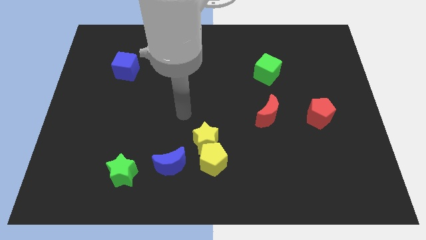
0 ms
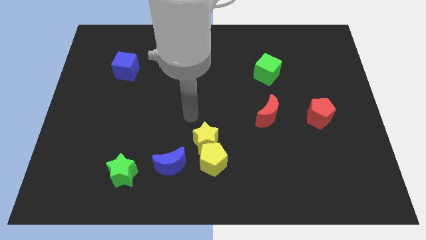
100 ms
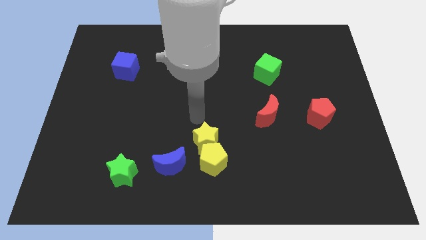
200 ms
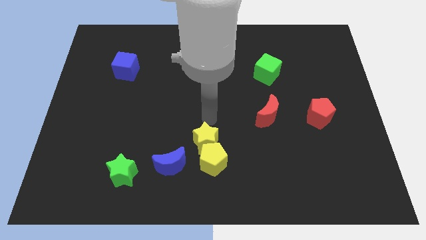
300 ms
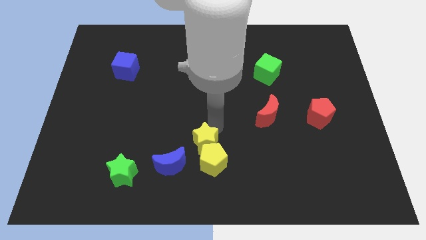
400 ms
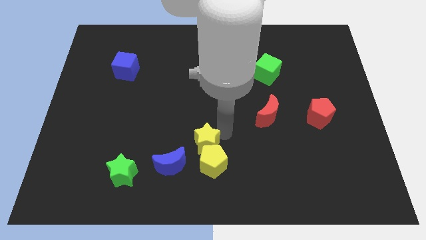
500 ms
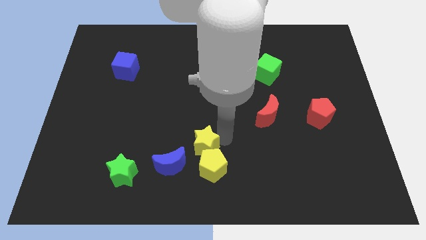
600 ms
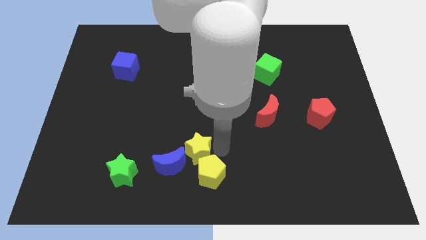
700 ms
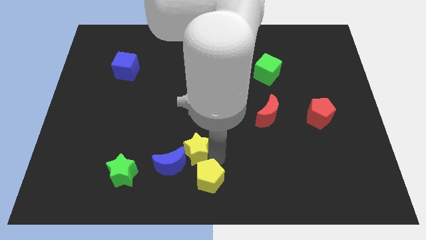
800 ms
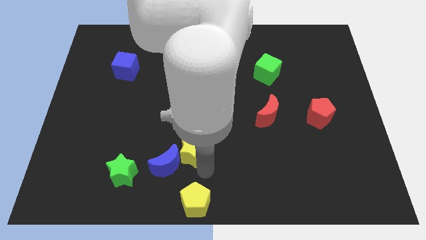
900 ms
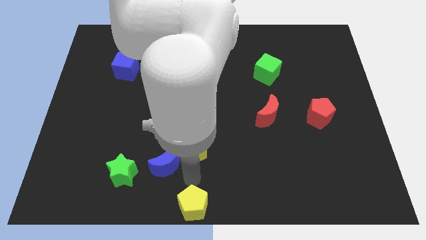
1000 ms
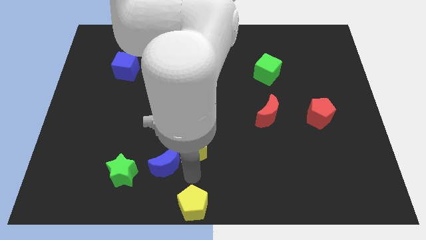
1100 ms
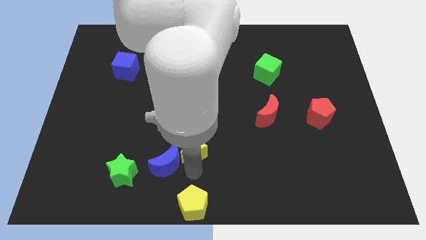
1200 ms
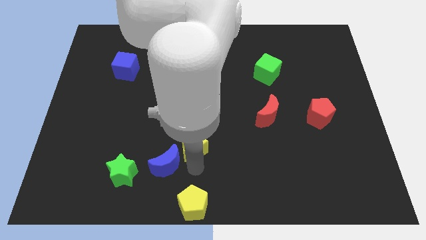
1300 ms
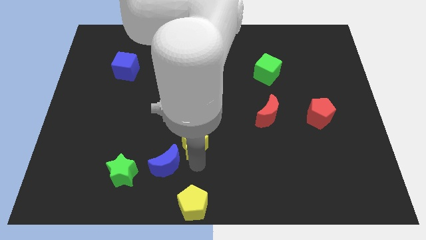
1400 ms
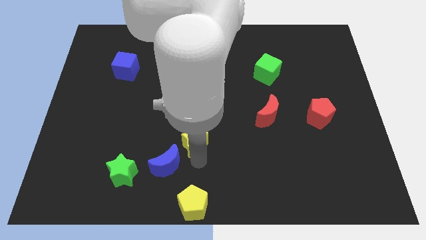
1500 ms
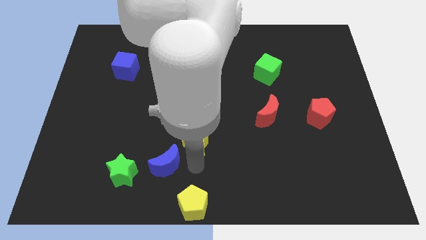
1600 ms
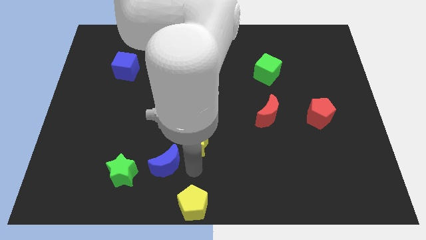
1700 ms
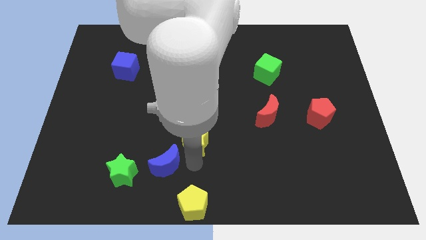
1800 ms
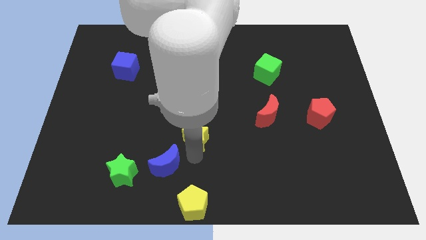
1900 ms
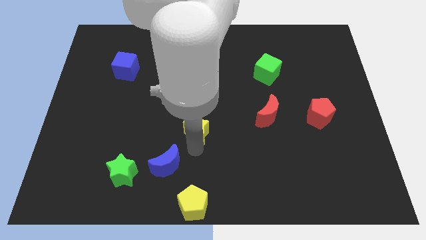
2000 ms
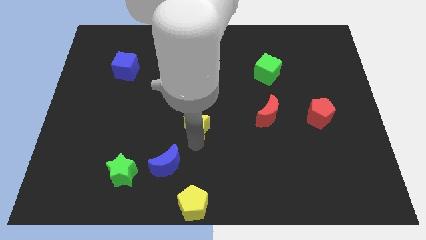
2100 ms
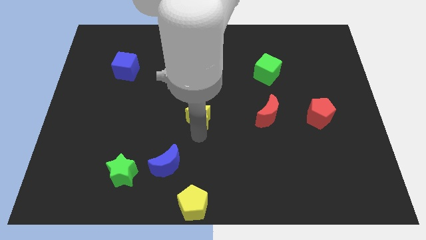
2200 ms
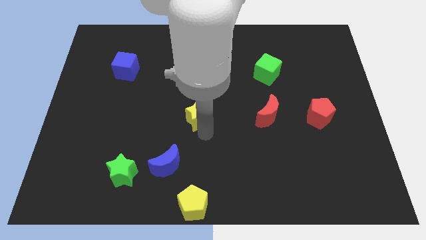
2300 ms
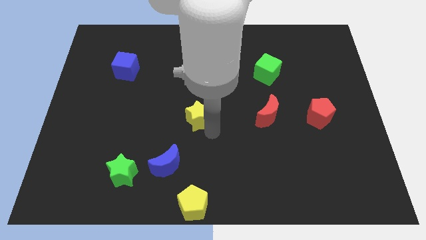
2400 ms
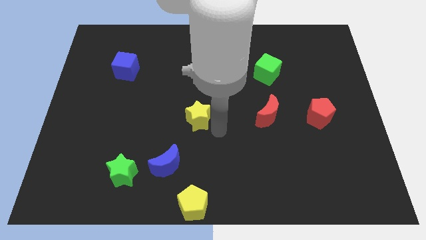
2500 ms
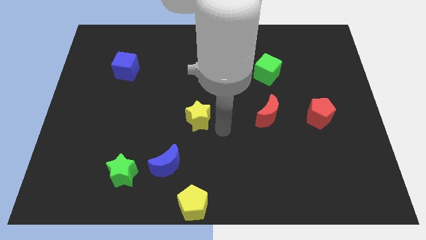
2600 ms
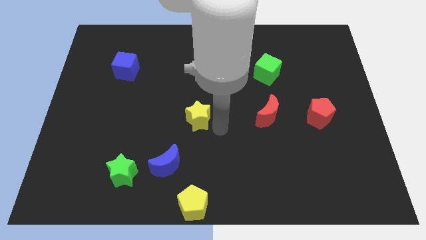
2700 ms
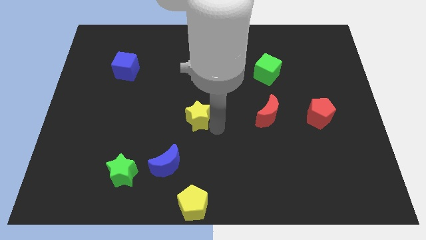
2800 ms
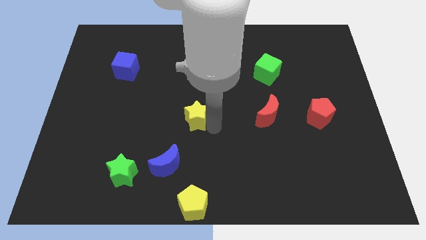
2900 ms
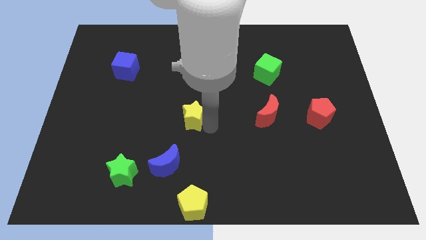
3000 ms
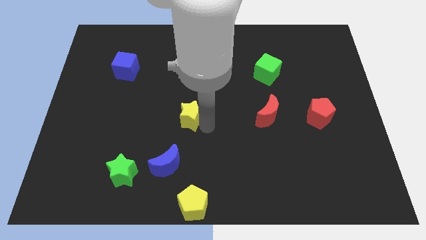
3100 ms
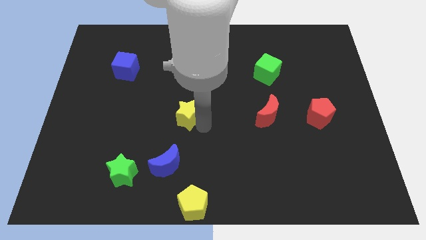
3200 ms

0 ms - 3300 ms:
slide the yellow star up and then left a bit

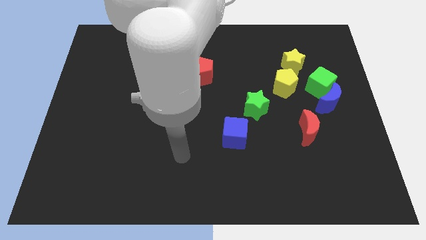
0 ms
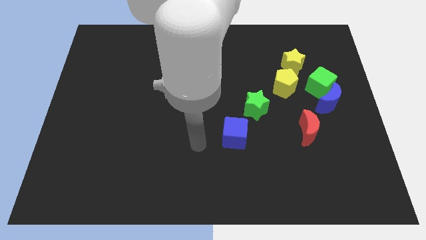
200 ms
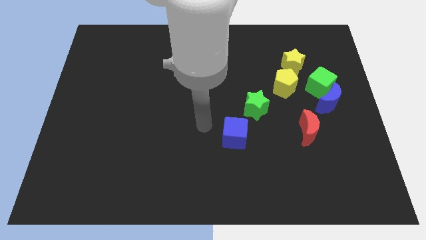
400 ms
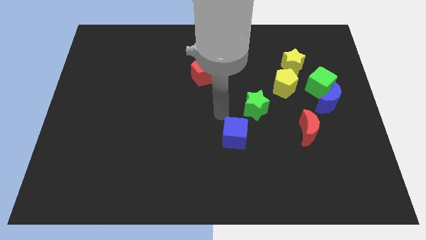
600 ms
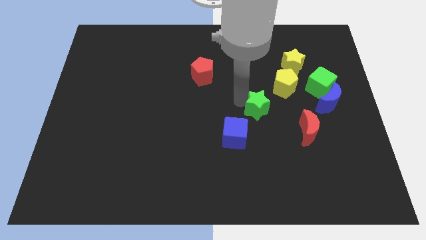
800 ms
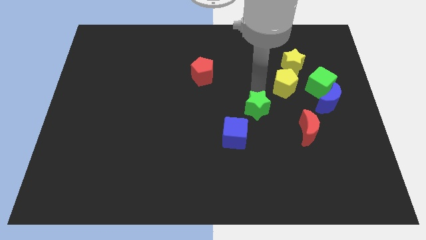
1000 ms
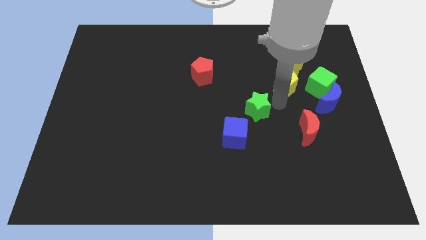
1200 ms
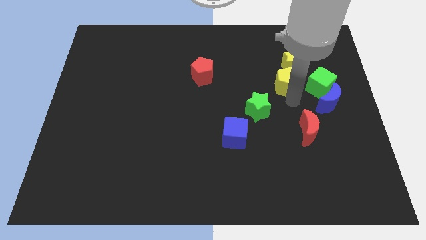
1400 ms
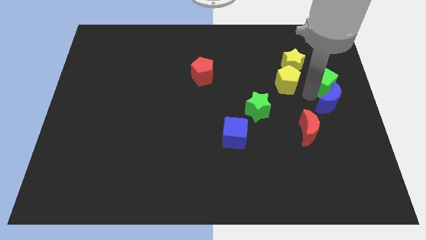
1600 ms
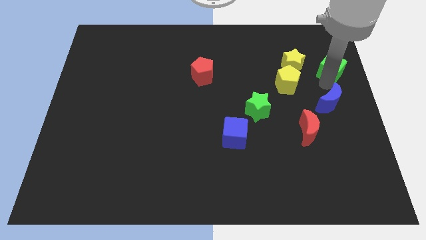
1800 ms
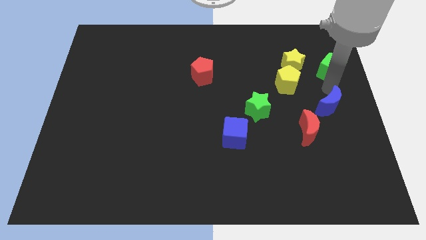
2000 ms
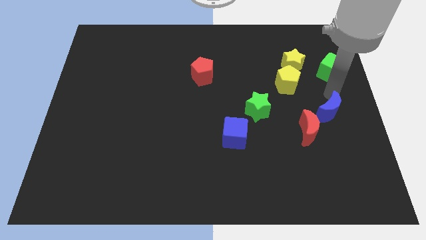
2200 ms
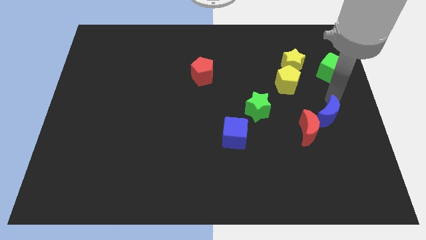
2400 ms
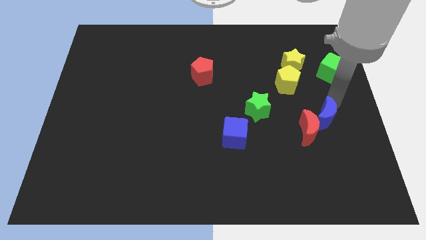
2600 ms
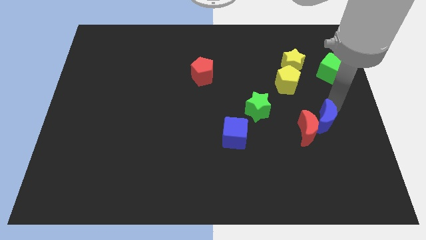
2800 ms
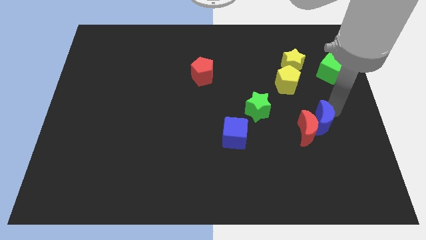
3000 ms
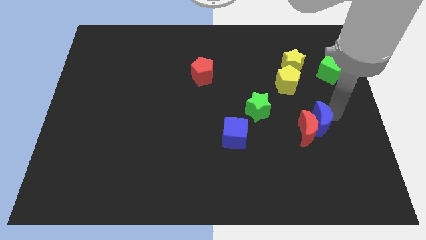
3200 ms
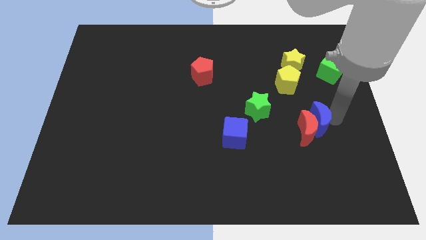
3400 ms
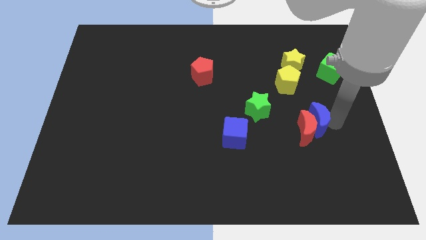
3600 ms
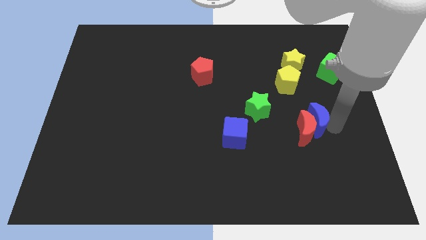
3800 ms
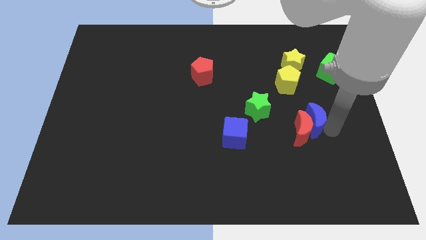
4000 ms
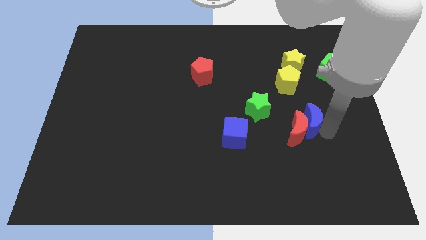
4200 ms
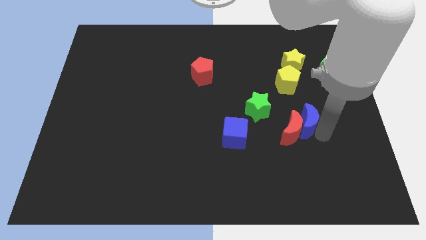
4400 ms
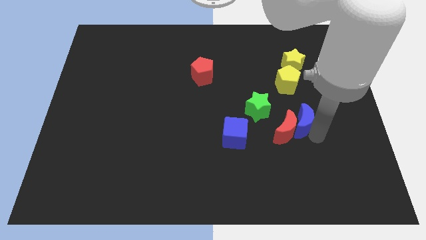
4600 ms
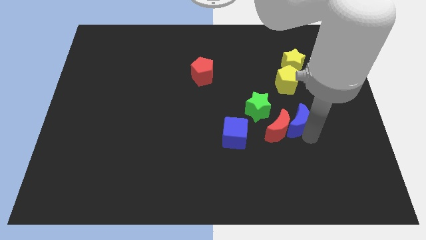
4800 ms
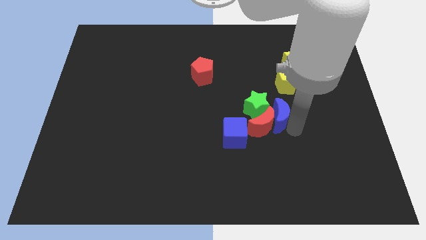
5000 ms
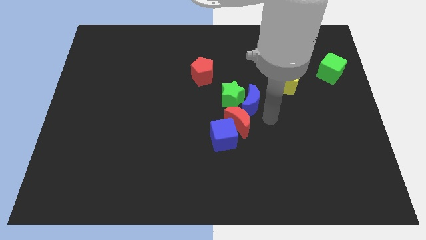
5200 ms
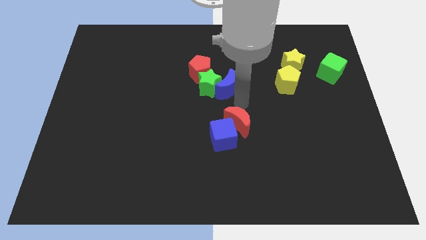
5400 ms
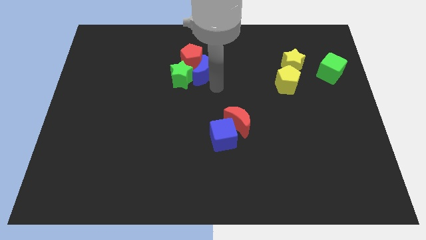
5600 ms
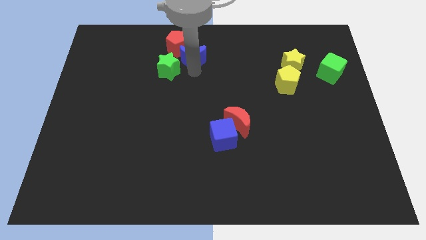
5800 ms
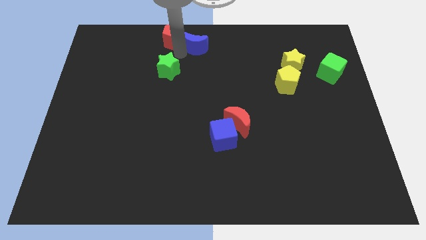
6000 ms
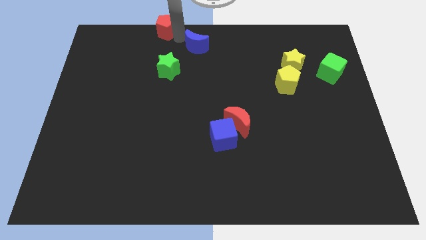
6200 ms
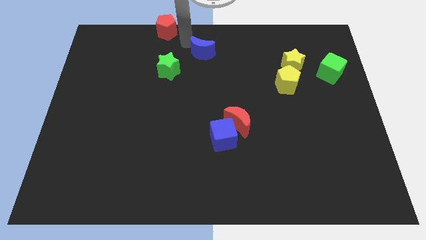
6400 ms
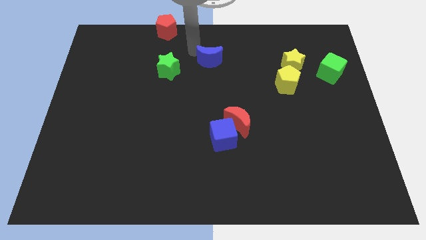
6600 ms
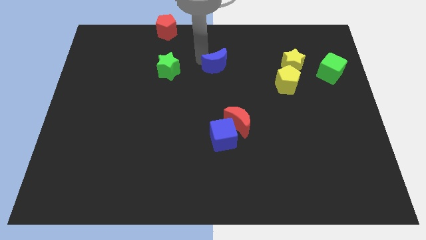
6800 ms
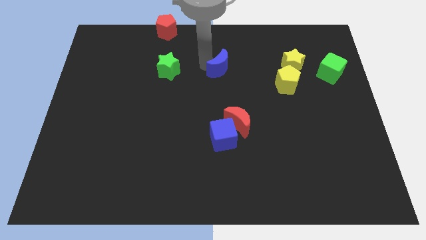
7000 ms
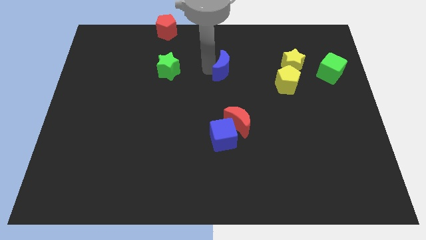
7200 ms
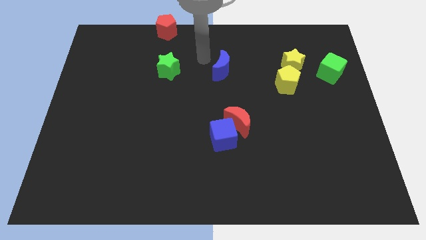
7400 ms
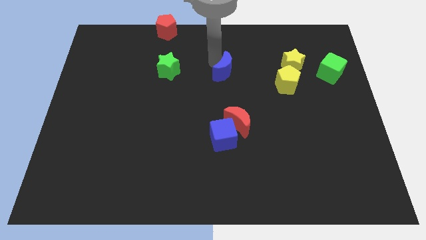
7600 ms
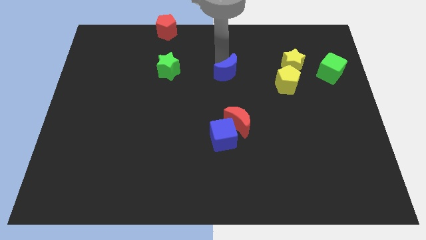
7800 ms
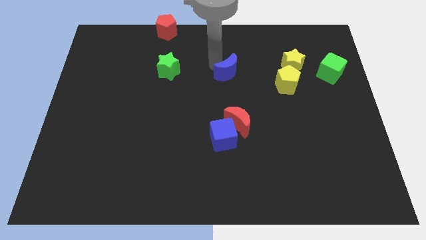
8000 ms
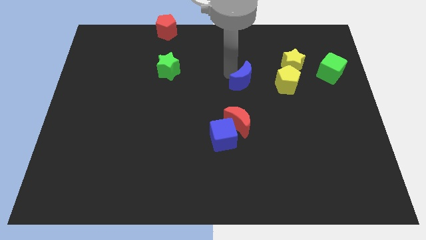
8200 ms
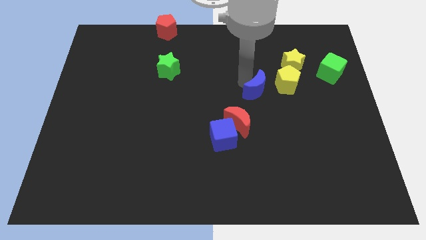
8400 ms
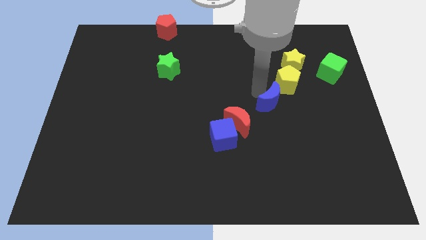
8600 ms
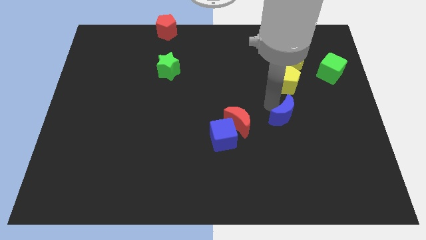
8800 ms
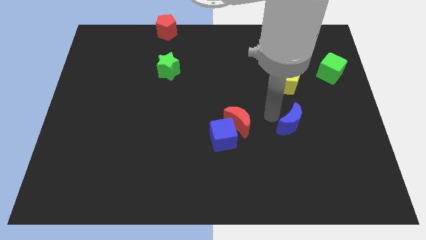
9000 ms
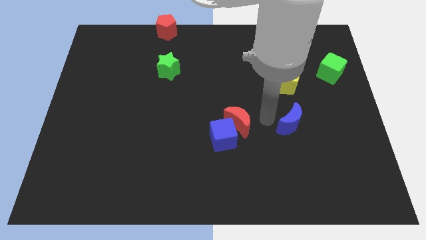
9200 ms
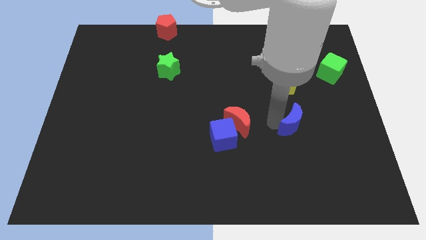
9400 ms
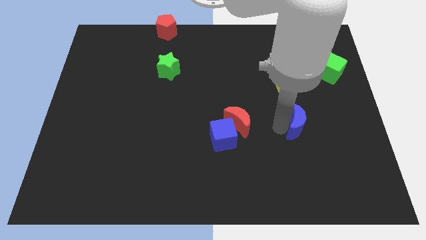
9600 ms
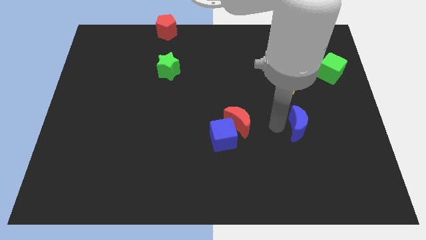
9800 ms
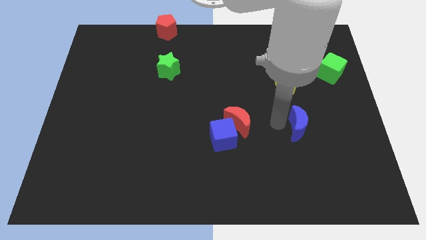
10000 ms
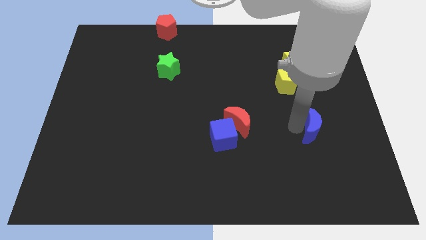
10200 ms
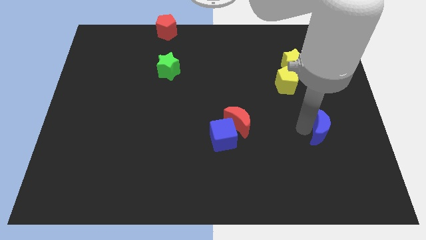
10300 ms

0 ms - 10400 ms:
slightly slide the blue moon down
